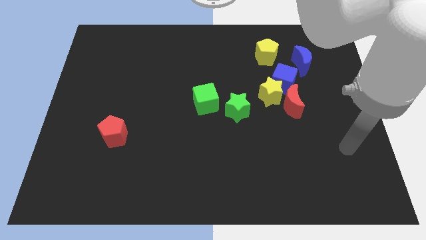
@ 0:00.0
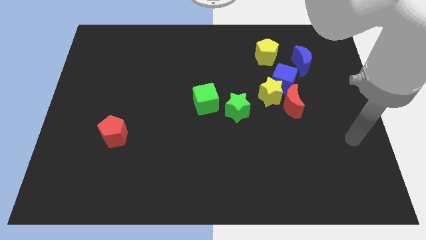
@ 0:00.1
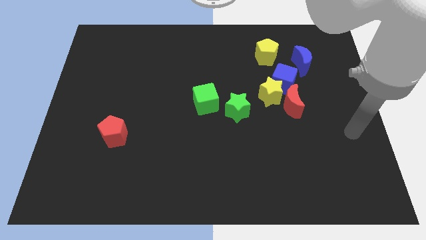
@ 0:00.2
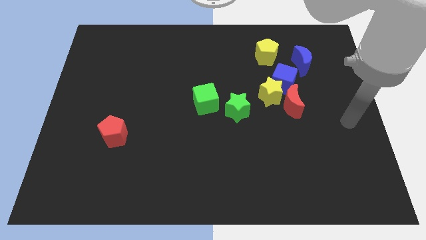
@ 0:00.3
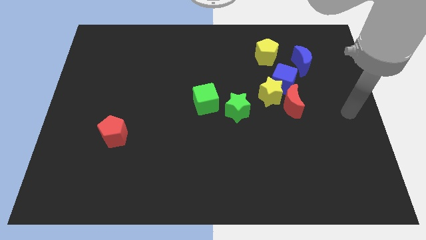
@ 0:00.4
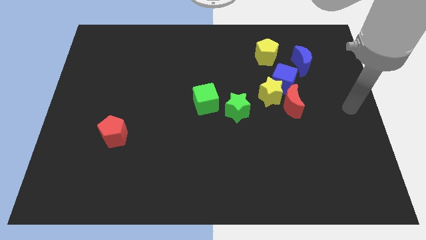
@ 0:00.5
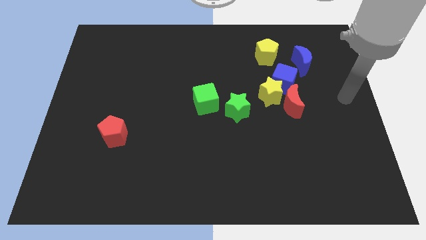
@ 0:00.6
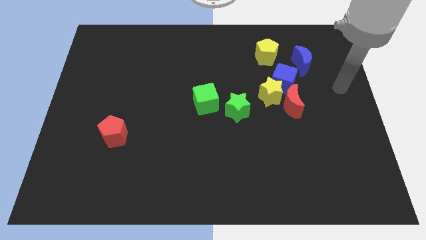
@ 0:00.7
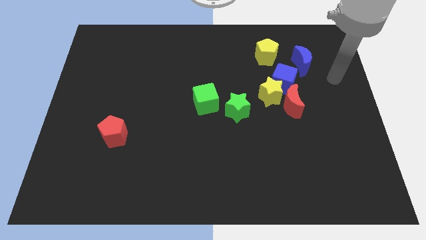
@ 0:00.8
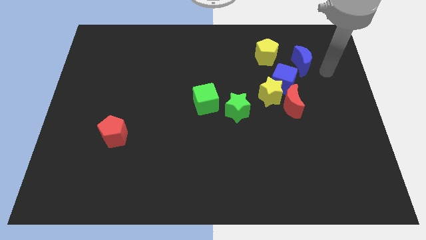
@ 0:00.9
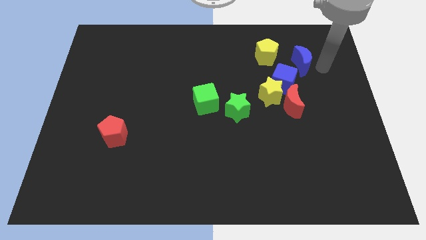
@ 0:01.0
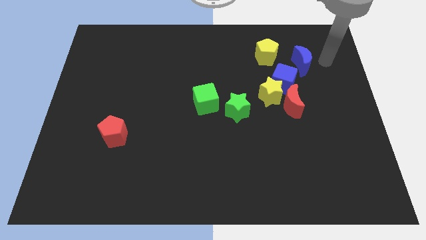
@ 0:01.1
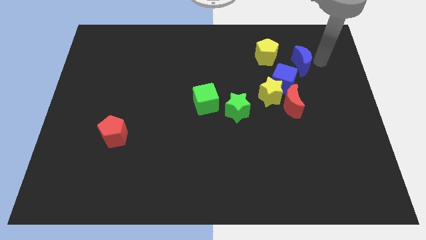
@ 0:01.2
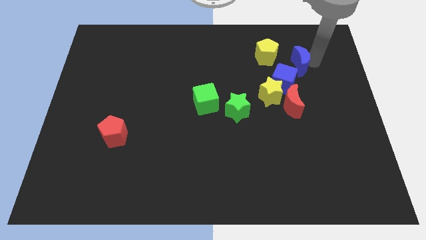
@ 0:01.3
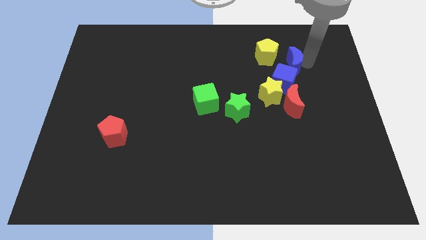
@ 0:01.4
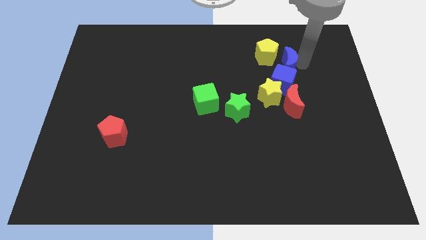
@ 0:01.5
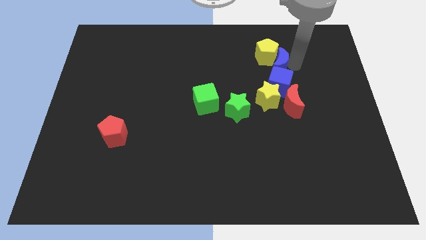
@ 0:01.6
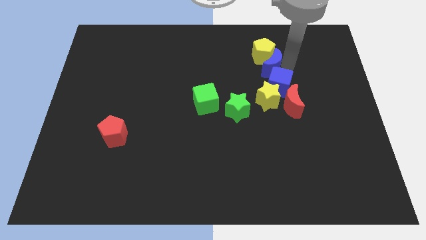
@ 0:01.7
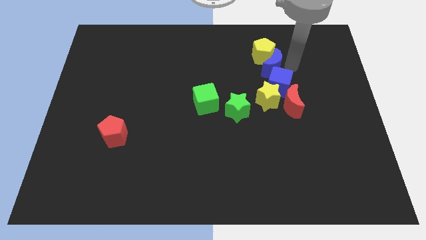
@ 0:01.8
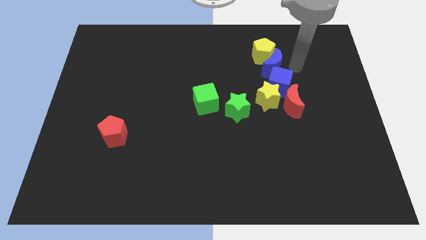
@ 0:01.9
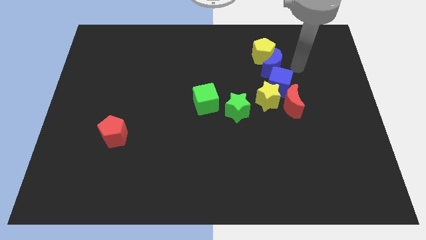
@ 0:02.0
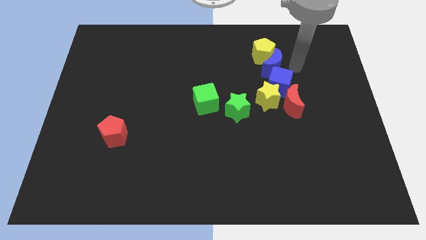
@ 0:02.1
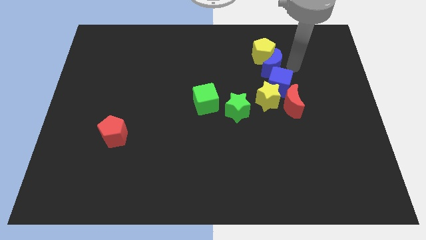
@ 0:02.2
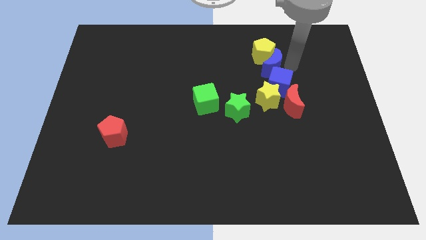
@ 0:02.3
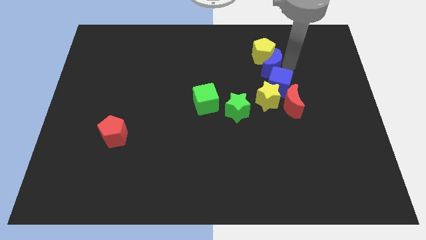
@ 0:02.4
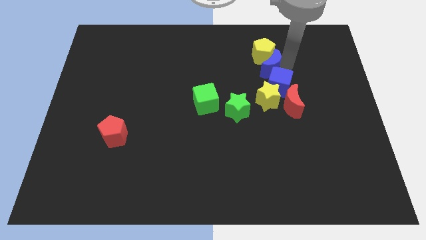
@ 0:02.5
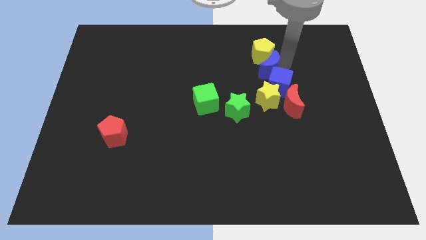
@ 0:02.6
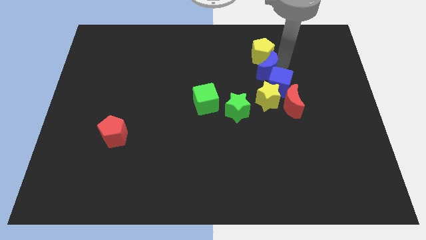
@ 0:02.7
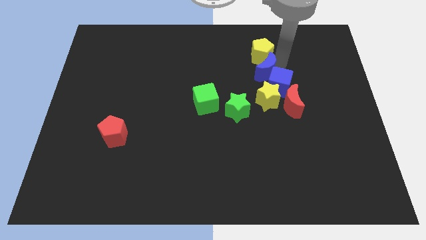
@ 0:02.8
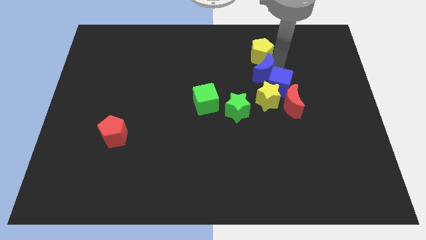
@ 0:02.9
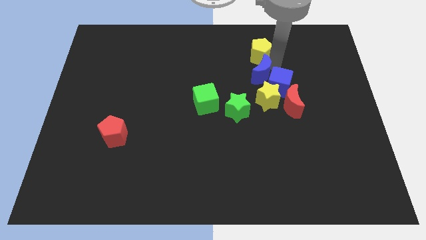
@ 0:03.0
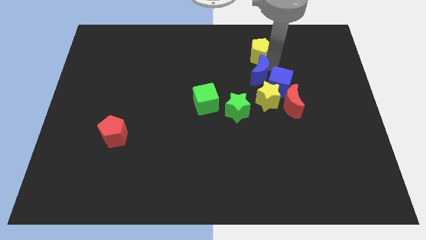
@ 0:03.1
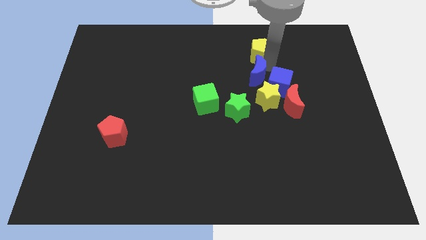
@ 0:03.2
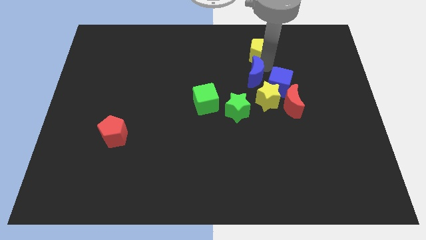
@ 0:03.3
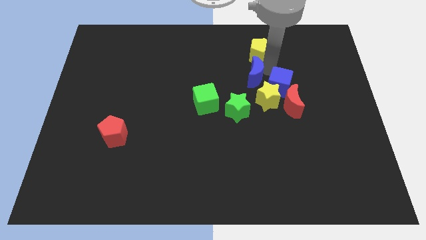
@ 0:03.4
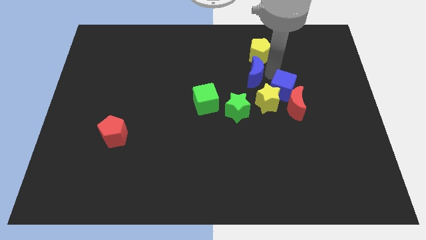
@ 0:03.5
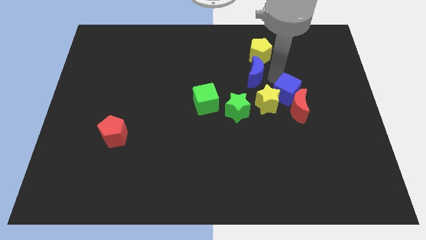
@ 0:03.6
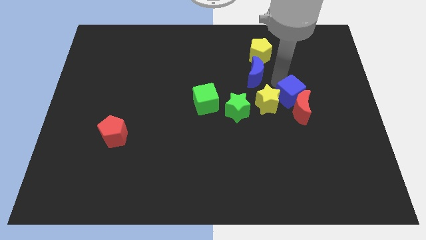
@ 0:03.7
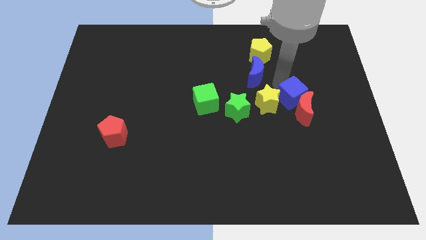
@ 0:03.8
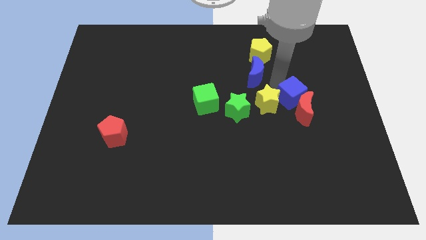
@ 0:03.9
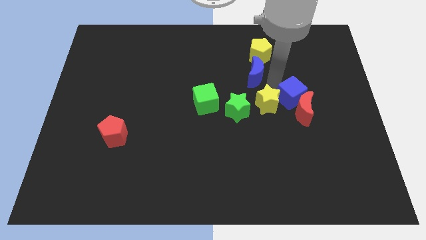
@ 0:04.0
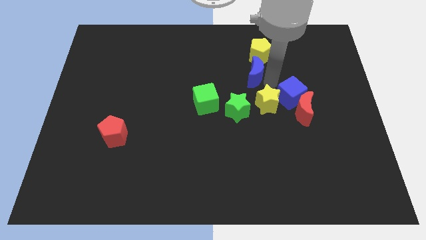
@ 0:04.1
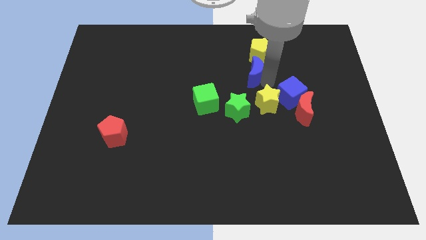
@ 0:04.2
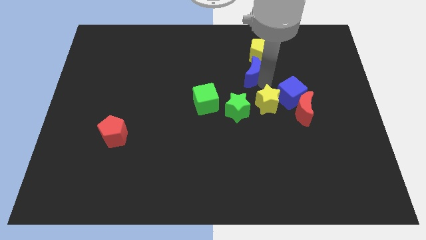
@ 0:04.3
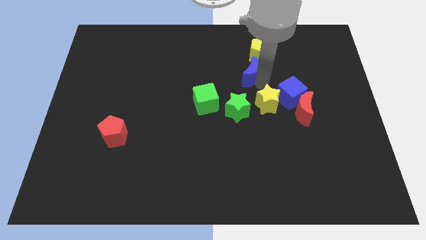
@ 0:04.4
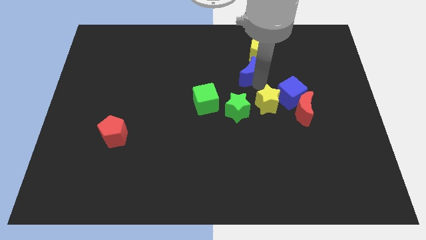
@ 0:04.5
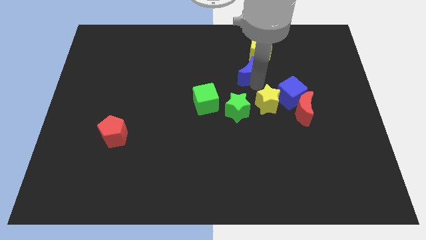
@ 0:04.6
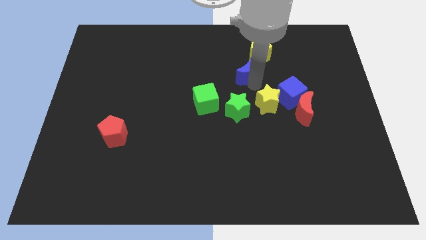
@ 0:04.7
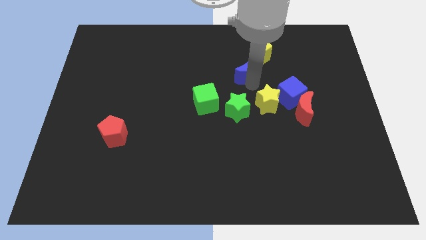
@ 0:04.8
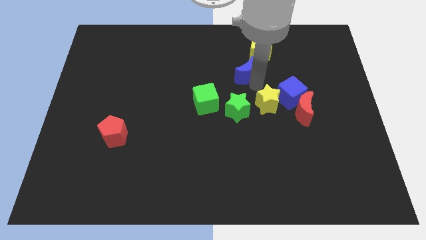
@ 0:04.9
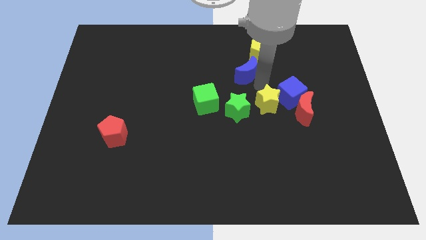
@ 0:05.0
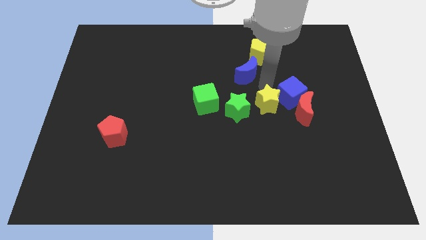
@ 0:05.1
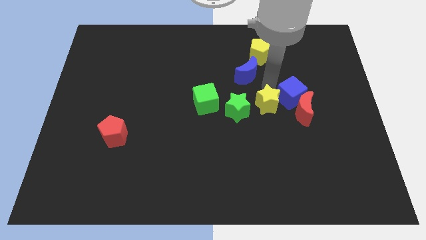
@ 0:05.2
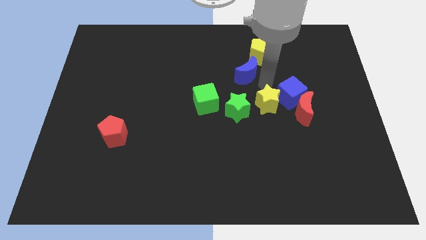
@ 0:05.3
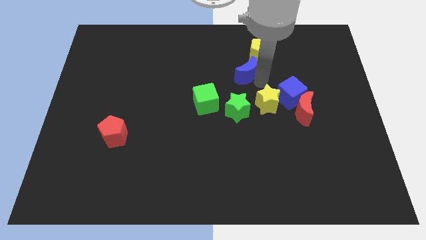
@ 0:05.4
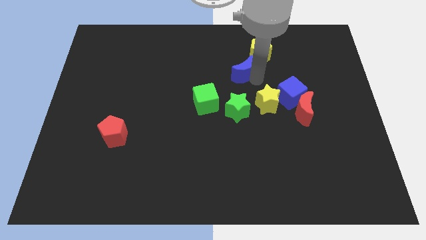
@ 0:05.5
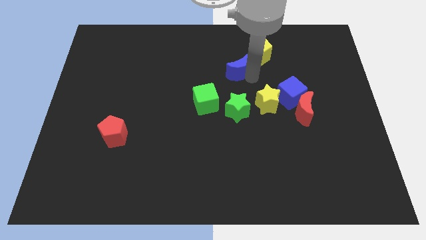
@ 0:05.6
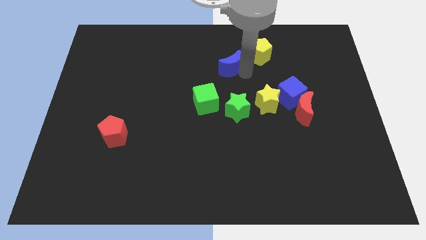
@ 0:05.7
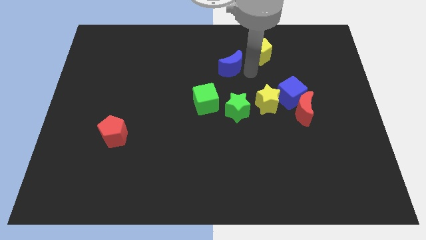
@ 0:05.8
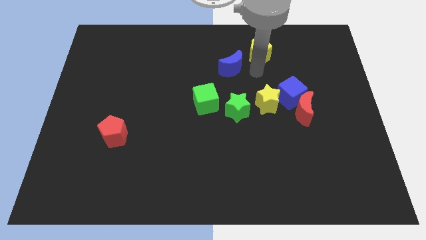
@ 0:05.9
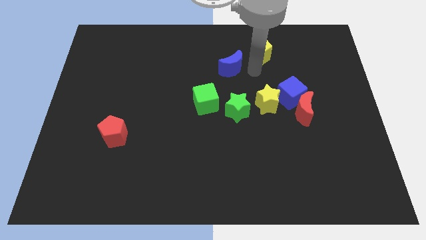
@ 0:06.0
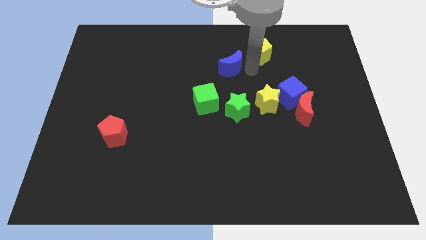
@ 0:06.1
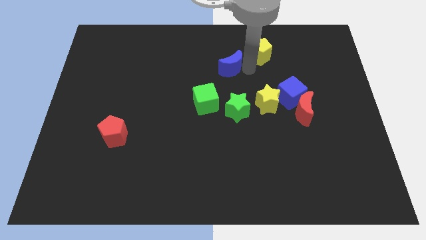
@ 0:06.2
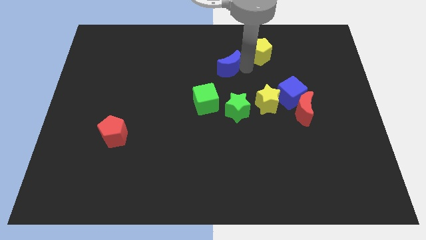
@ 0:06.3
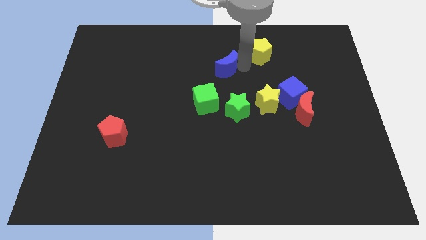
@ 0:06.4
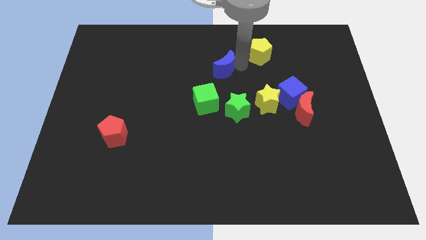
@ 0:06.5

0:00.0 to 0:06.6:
push the blue moon left

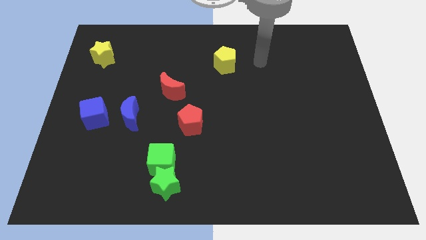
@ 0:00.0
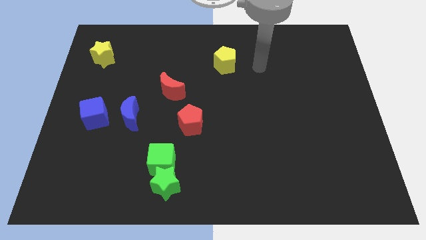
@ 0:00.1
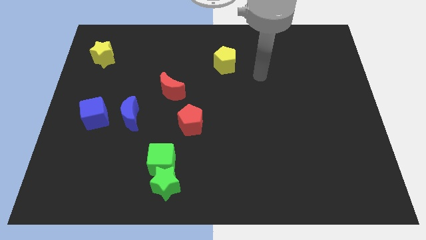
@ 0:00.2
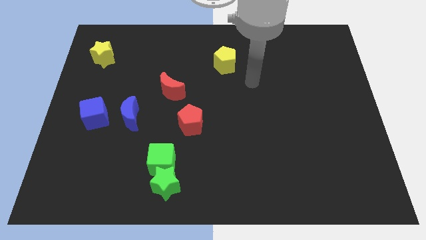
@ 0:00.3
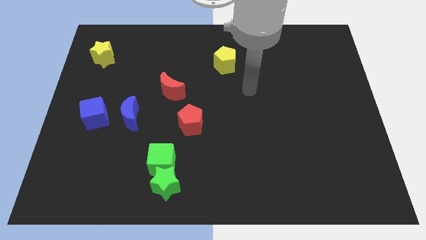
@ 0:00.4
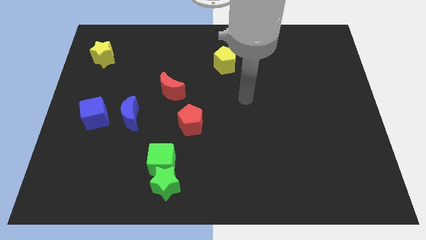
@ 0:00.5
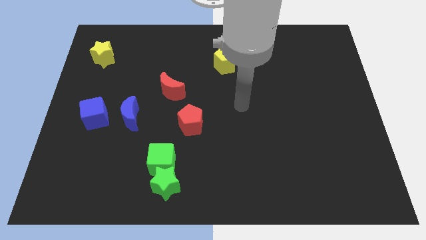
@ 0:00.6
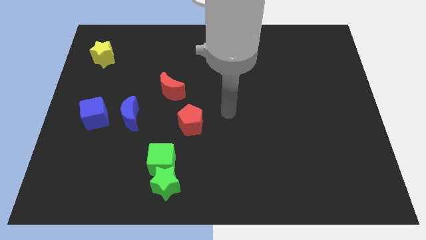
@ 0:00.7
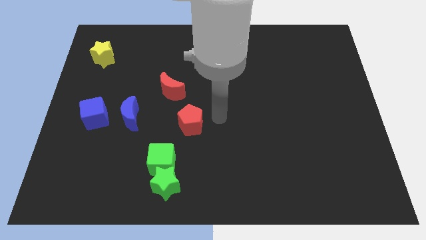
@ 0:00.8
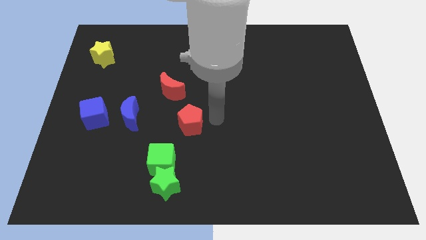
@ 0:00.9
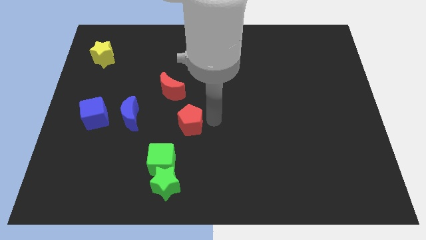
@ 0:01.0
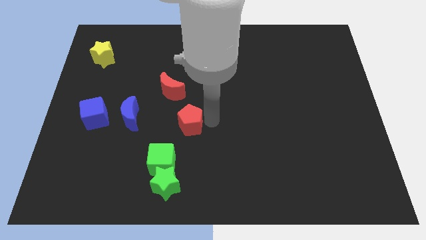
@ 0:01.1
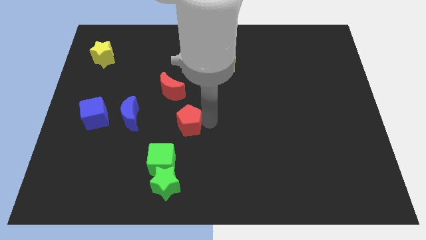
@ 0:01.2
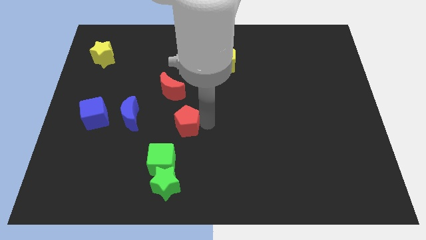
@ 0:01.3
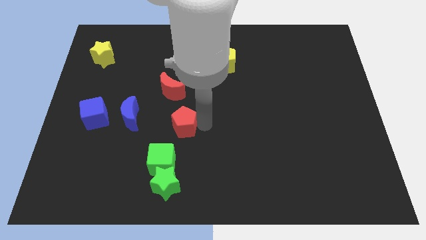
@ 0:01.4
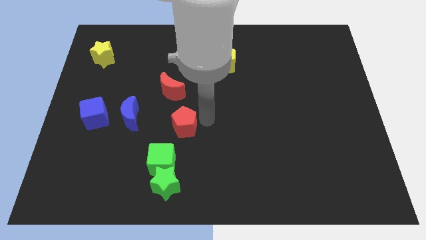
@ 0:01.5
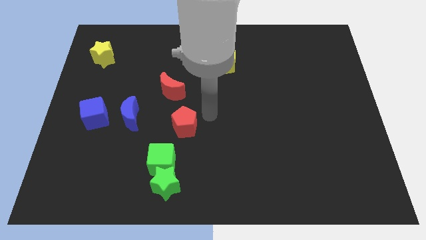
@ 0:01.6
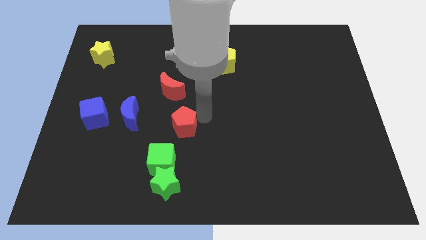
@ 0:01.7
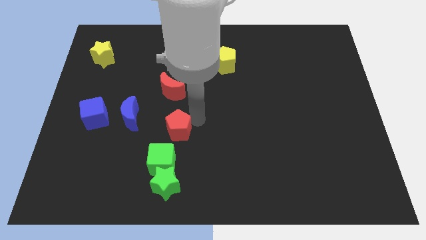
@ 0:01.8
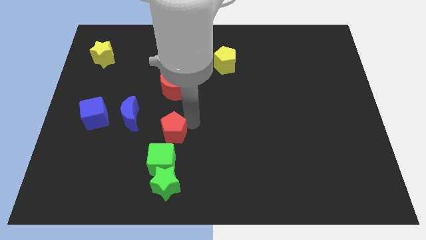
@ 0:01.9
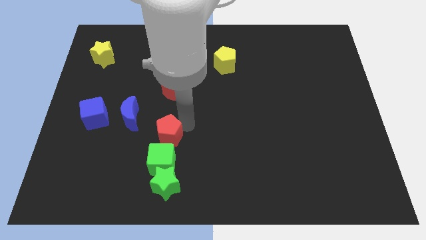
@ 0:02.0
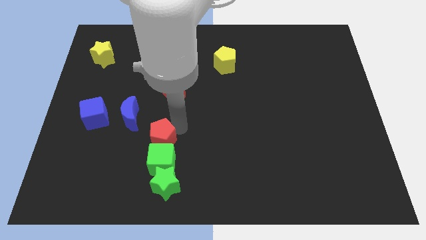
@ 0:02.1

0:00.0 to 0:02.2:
push the red pentagon downwards and left a bit
